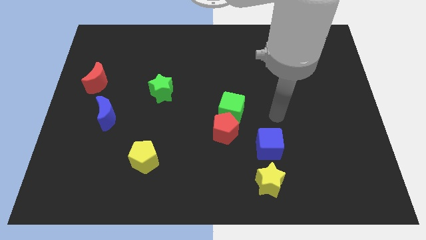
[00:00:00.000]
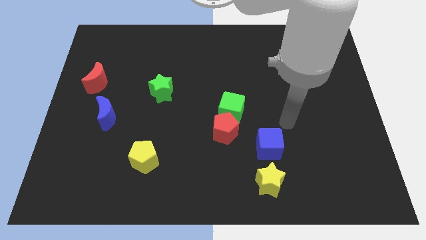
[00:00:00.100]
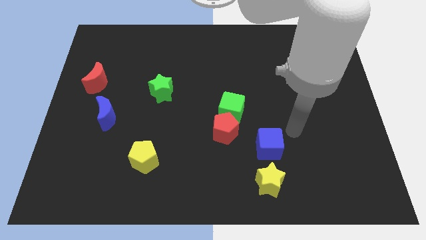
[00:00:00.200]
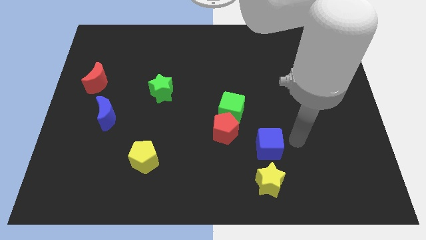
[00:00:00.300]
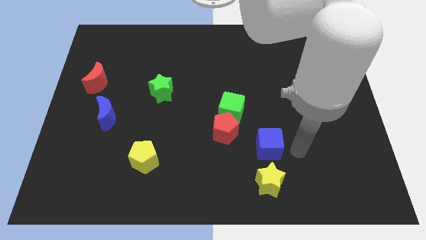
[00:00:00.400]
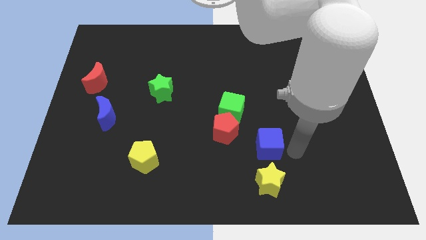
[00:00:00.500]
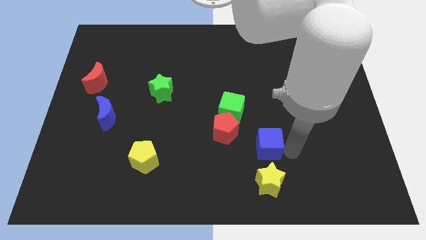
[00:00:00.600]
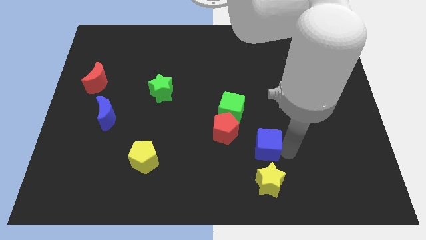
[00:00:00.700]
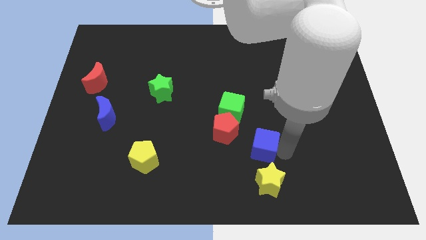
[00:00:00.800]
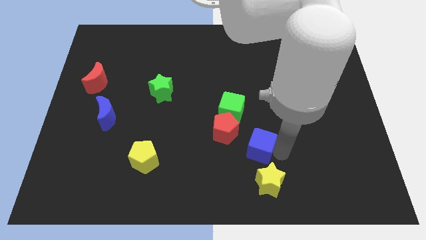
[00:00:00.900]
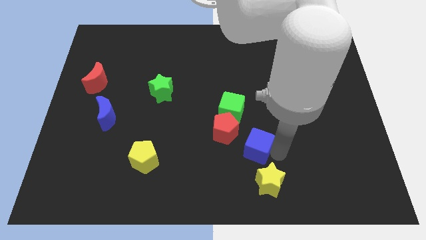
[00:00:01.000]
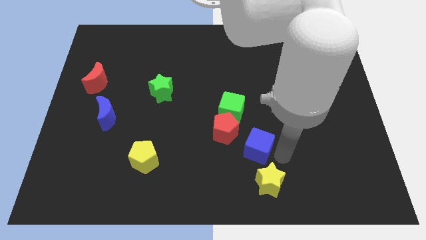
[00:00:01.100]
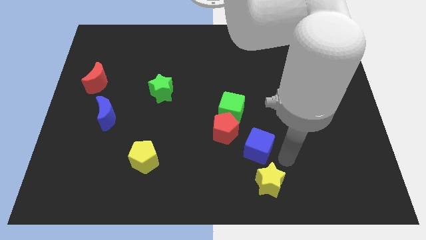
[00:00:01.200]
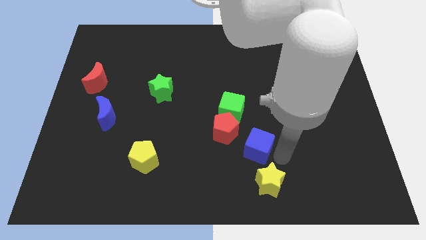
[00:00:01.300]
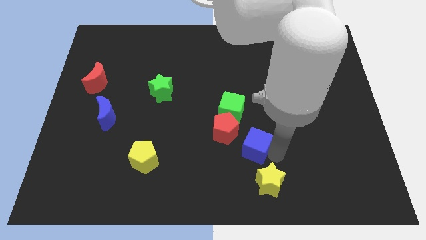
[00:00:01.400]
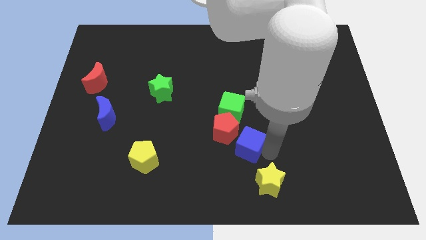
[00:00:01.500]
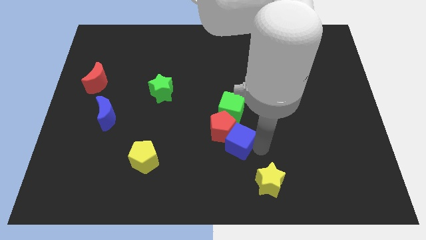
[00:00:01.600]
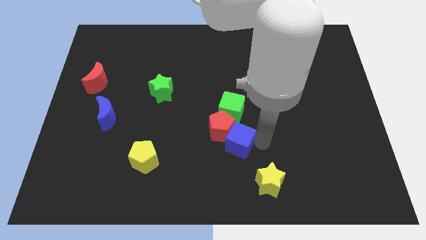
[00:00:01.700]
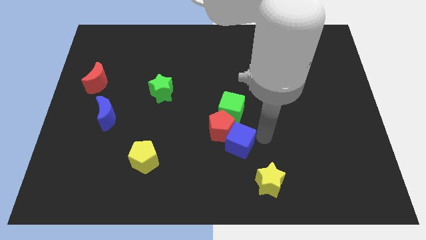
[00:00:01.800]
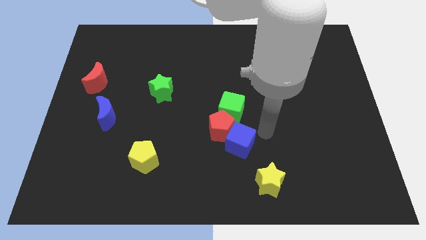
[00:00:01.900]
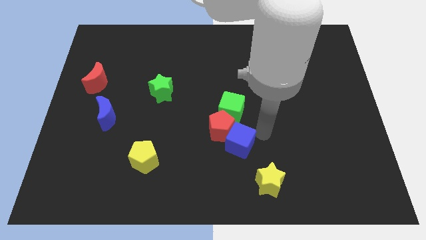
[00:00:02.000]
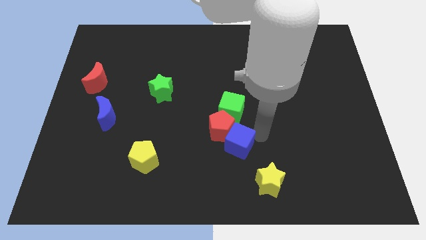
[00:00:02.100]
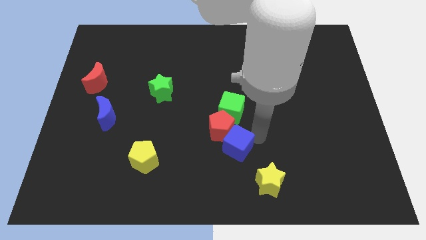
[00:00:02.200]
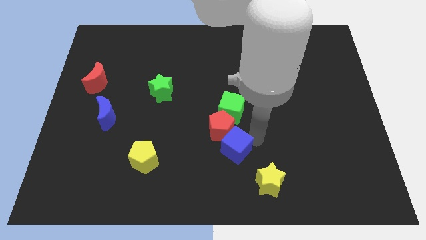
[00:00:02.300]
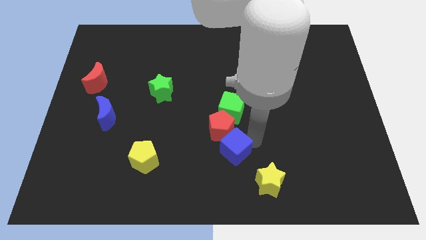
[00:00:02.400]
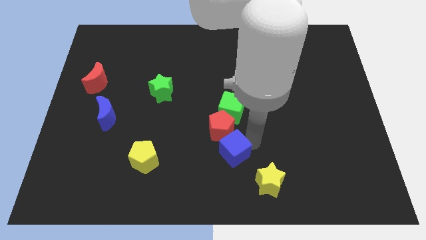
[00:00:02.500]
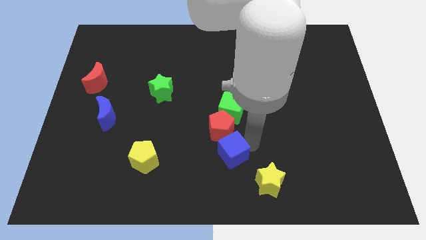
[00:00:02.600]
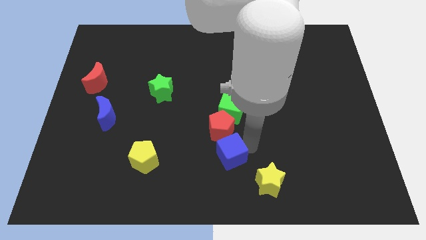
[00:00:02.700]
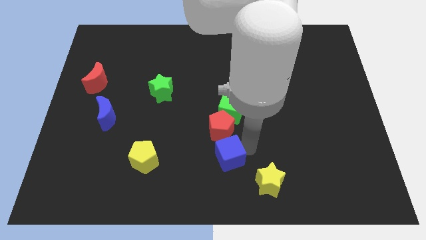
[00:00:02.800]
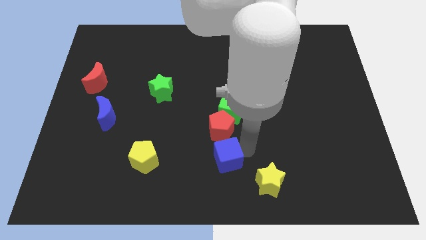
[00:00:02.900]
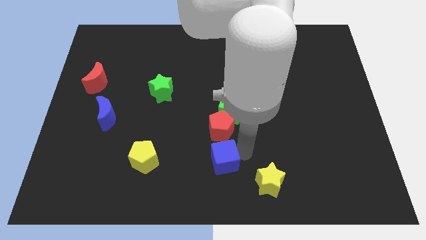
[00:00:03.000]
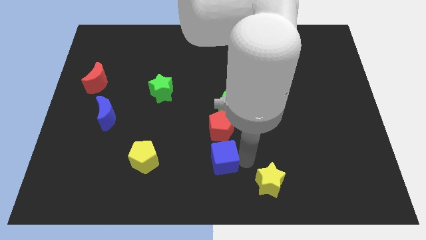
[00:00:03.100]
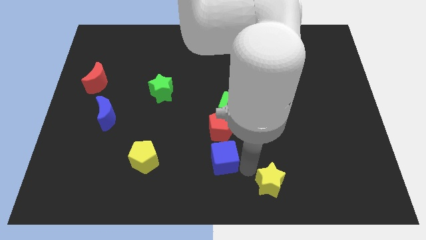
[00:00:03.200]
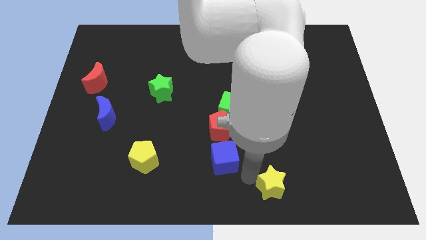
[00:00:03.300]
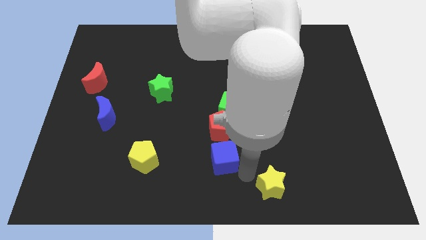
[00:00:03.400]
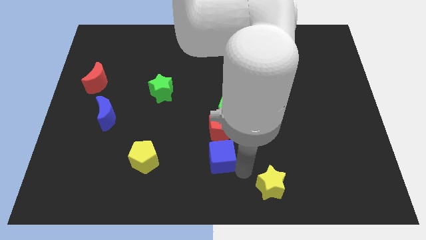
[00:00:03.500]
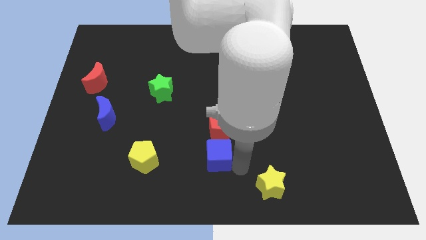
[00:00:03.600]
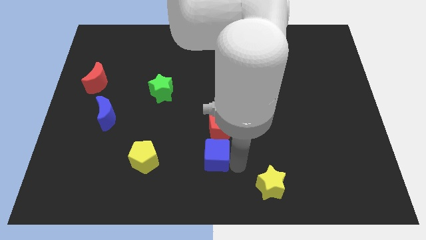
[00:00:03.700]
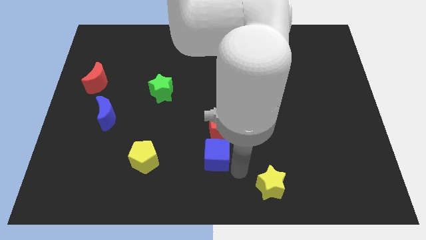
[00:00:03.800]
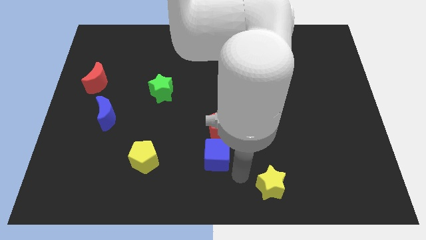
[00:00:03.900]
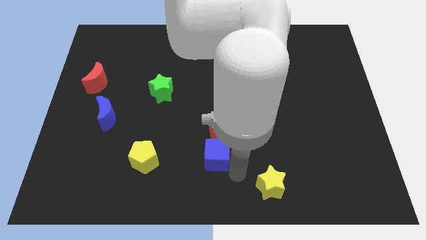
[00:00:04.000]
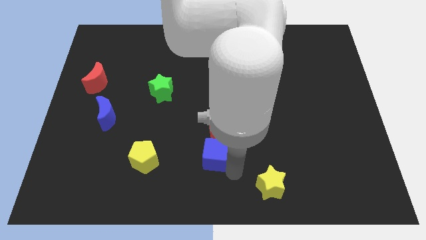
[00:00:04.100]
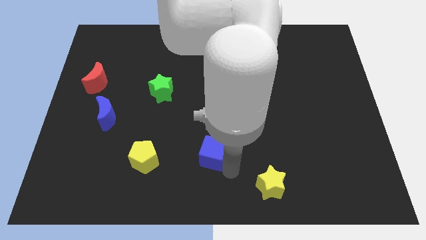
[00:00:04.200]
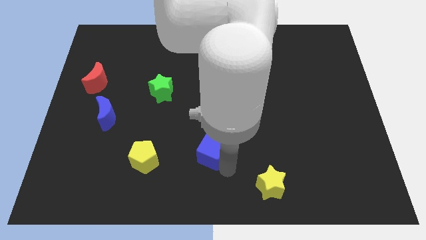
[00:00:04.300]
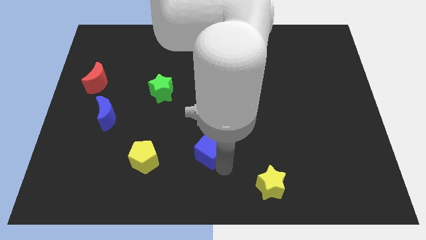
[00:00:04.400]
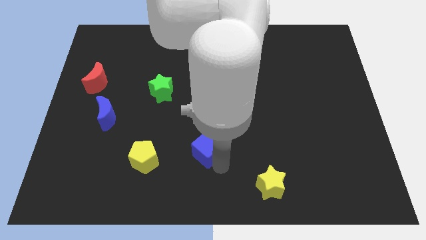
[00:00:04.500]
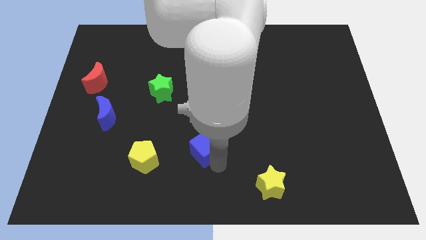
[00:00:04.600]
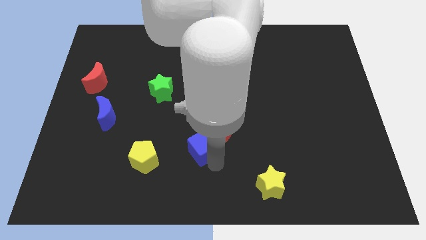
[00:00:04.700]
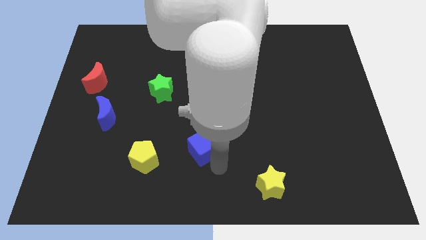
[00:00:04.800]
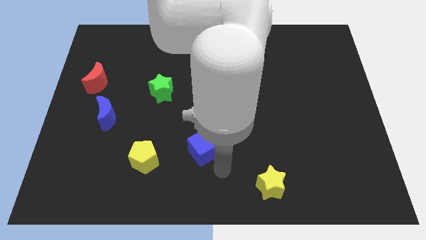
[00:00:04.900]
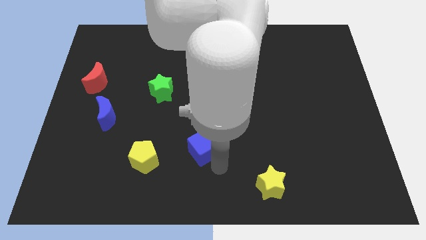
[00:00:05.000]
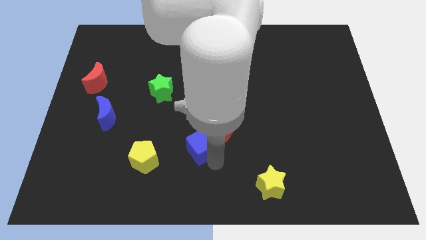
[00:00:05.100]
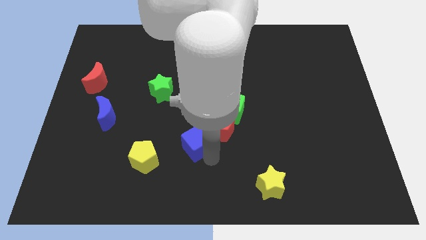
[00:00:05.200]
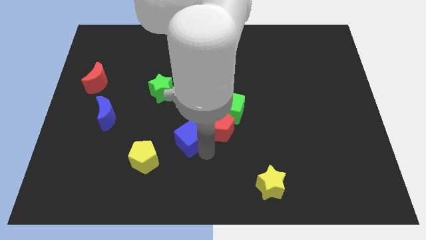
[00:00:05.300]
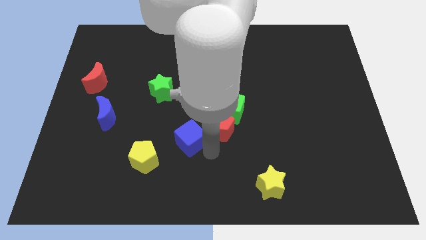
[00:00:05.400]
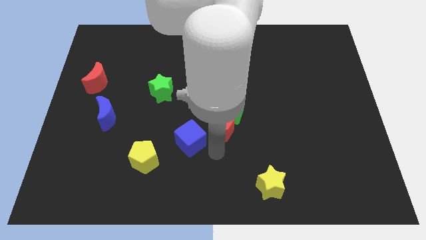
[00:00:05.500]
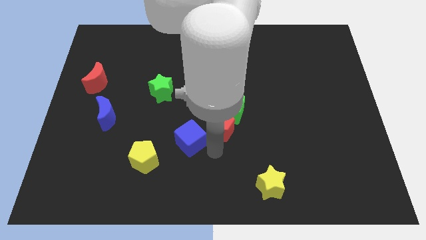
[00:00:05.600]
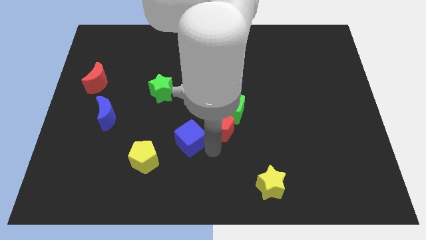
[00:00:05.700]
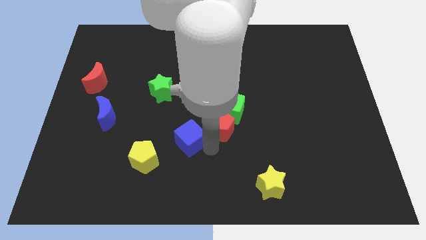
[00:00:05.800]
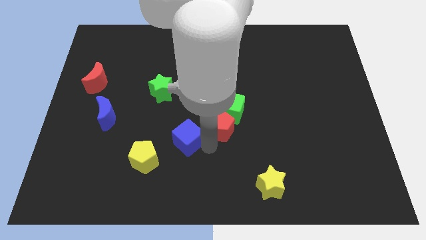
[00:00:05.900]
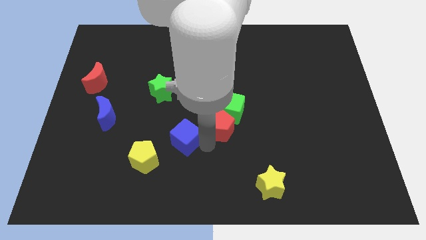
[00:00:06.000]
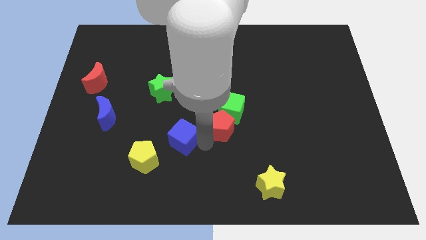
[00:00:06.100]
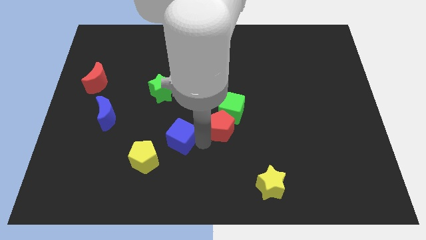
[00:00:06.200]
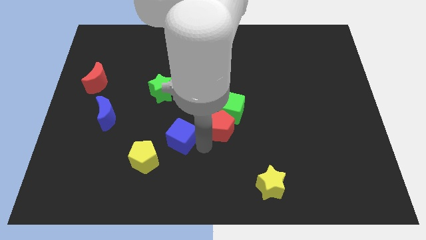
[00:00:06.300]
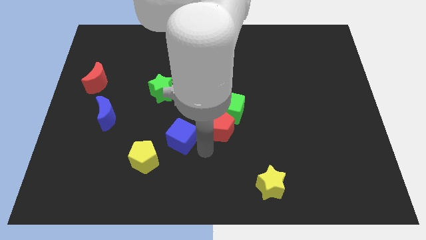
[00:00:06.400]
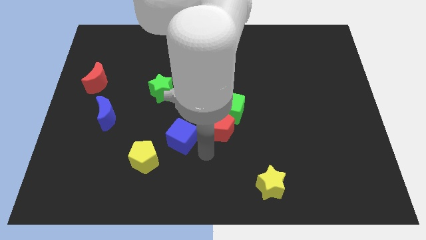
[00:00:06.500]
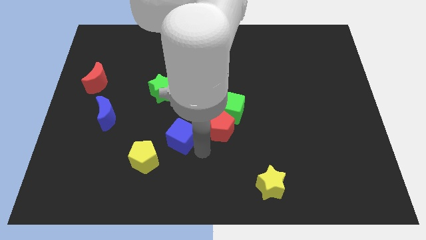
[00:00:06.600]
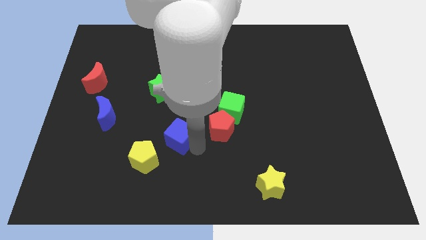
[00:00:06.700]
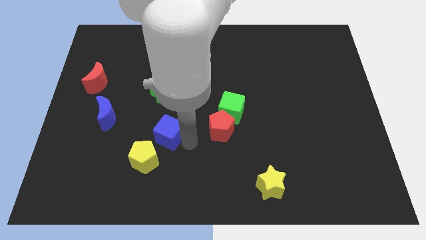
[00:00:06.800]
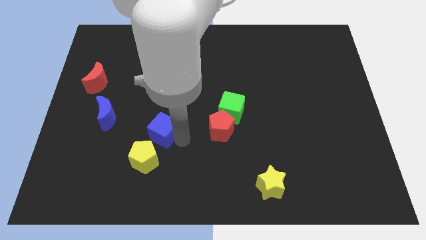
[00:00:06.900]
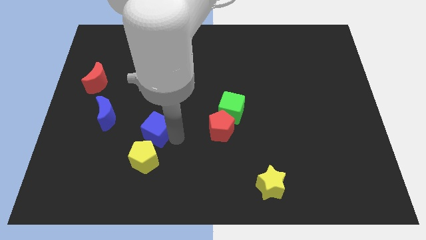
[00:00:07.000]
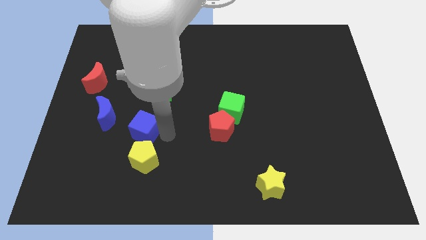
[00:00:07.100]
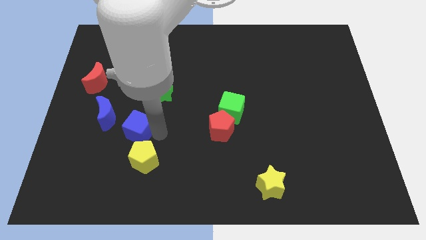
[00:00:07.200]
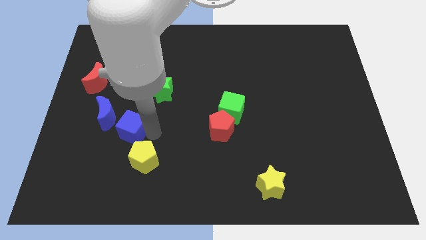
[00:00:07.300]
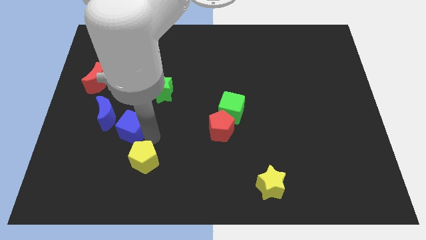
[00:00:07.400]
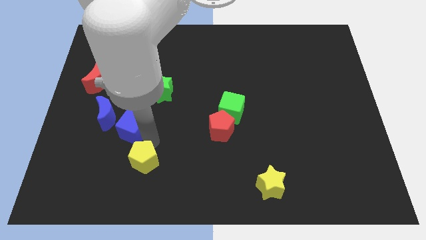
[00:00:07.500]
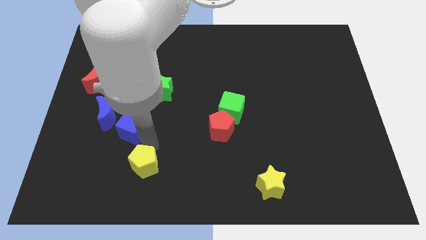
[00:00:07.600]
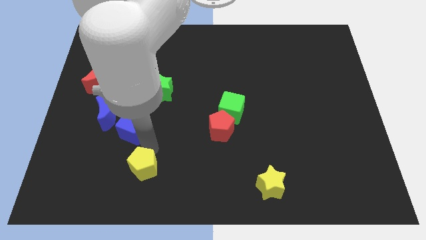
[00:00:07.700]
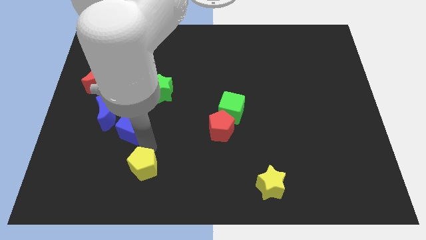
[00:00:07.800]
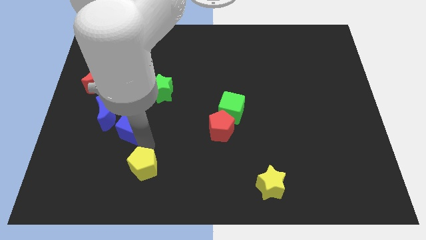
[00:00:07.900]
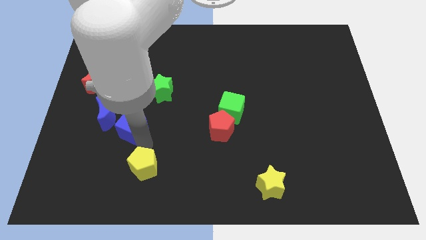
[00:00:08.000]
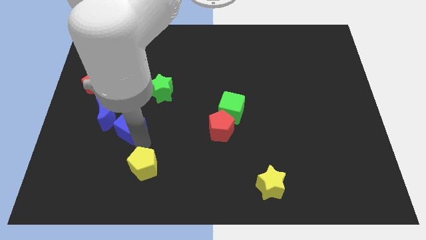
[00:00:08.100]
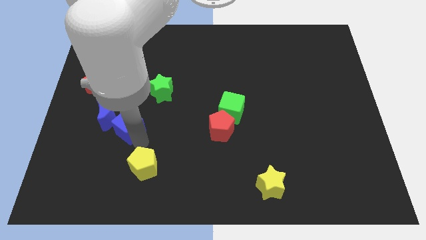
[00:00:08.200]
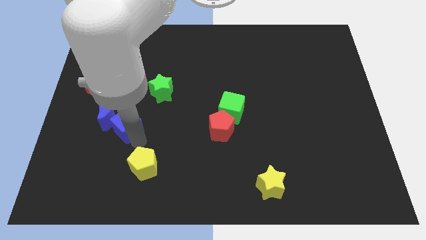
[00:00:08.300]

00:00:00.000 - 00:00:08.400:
push the blue cube next to the blue moon
